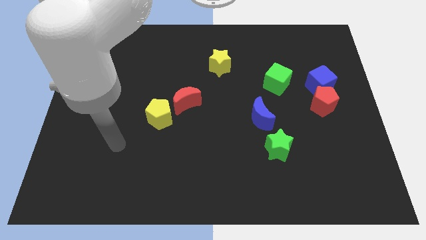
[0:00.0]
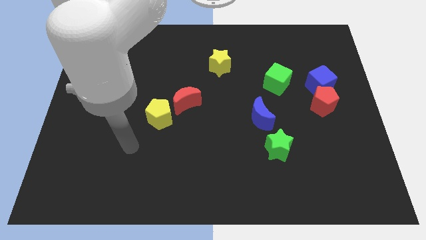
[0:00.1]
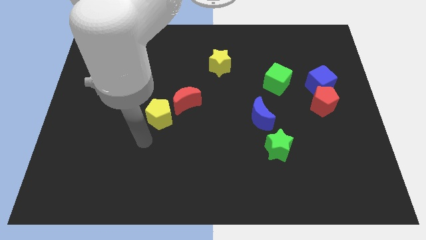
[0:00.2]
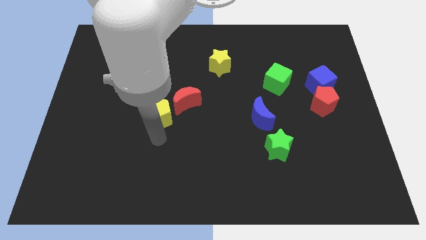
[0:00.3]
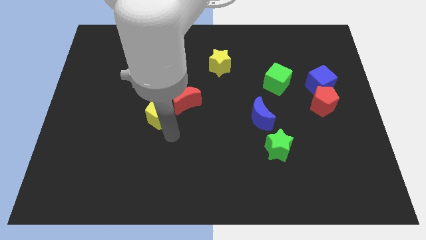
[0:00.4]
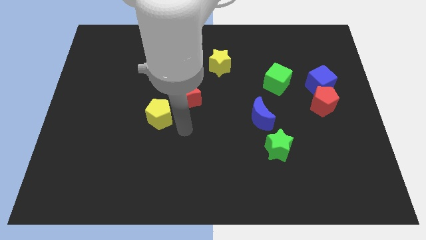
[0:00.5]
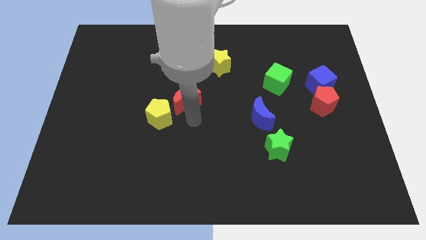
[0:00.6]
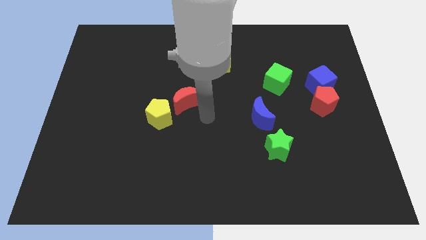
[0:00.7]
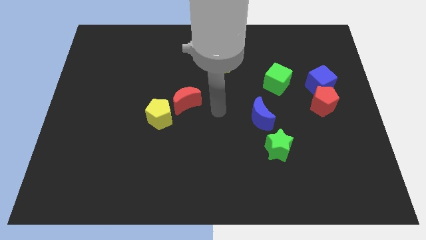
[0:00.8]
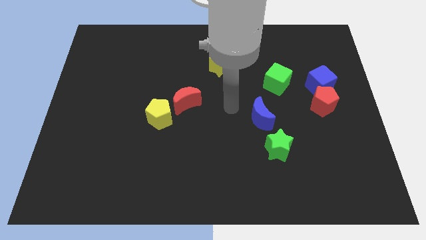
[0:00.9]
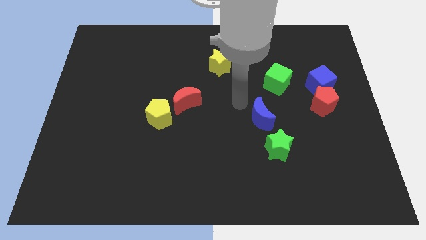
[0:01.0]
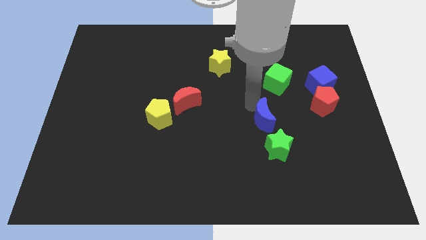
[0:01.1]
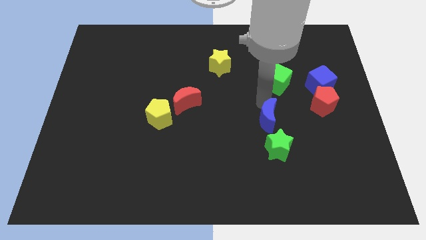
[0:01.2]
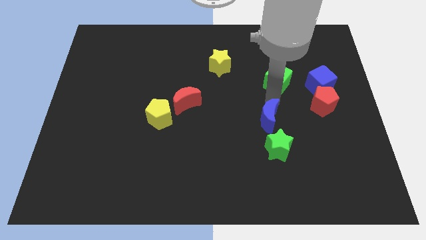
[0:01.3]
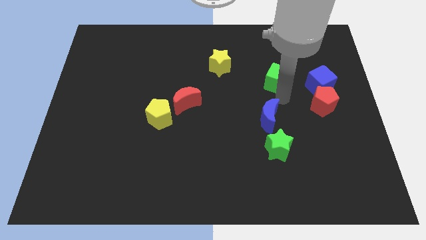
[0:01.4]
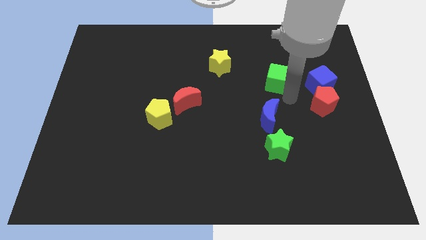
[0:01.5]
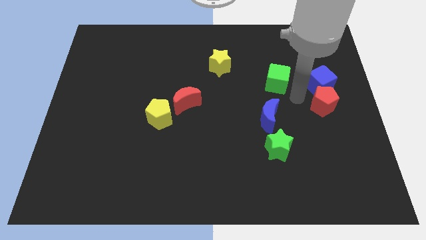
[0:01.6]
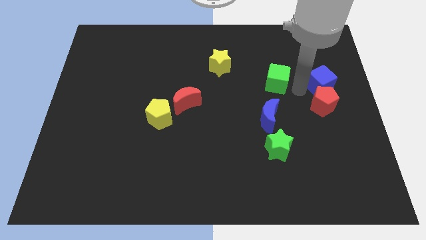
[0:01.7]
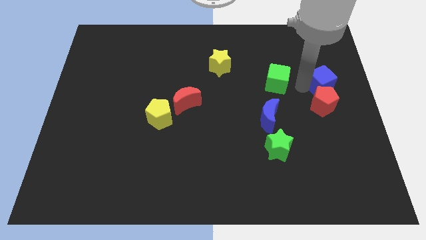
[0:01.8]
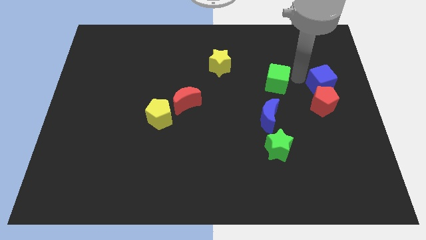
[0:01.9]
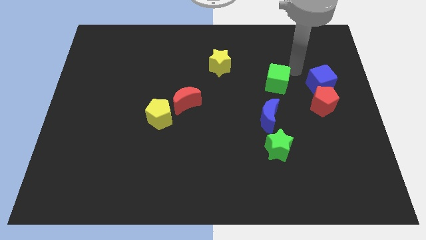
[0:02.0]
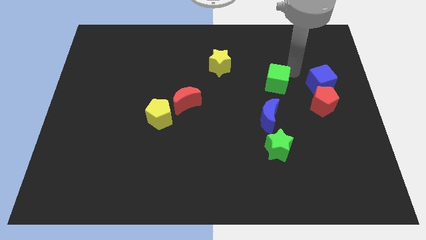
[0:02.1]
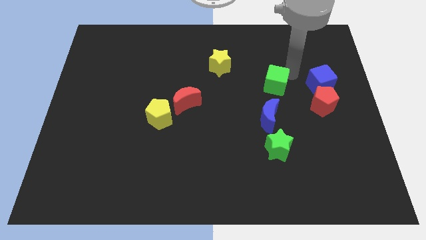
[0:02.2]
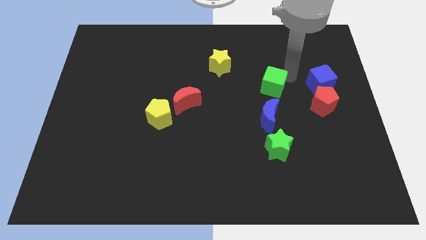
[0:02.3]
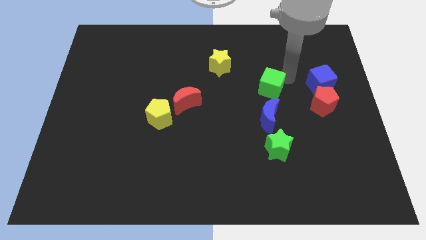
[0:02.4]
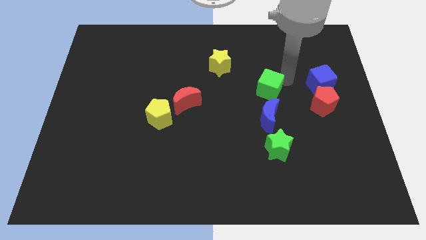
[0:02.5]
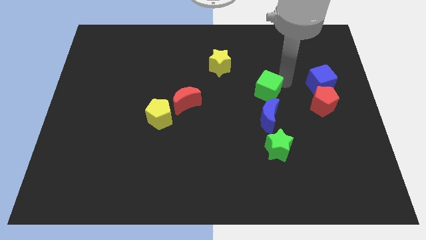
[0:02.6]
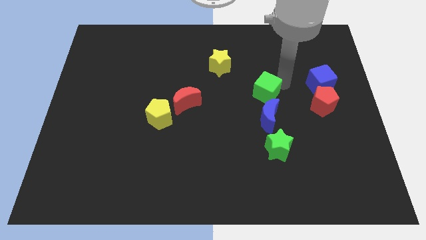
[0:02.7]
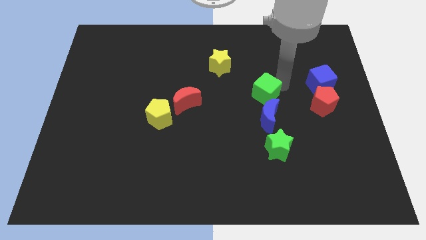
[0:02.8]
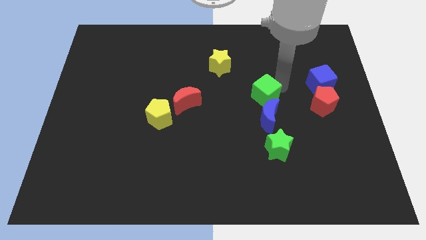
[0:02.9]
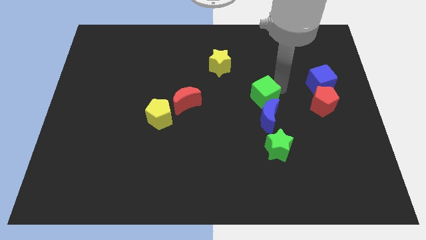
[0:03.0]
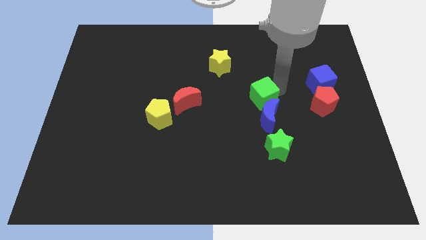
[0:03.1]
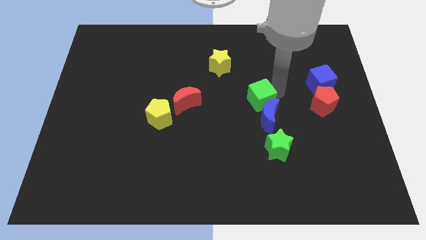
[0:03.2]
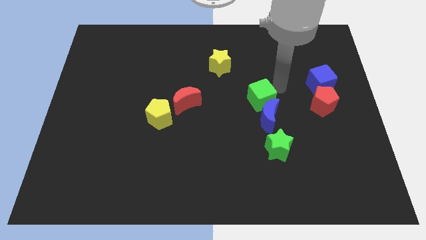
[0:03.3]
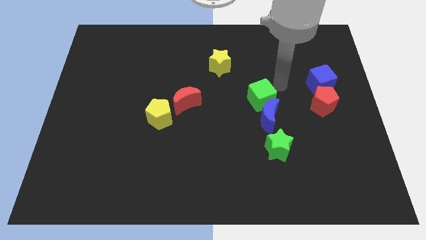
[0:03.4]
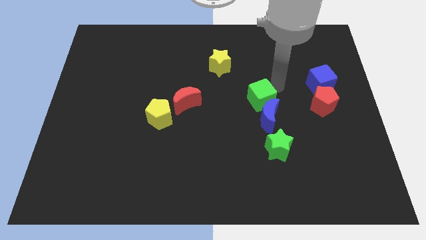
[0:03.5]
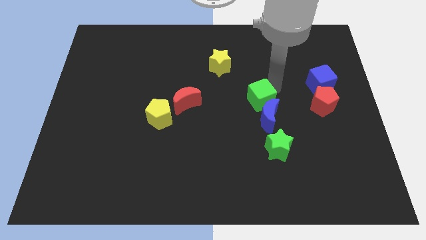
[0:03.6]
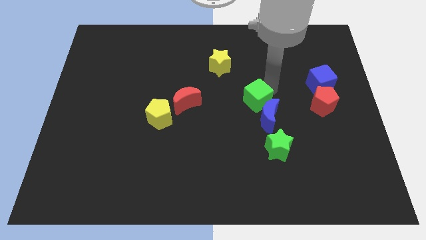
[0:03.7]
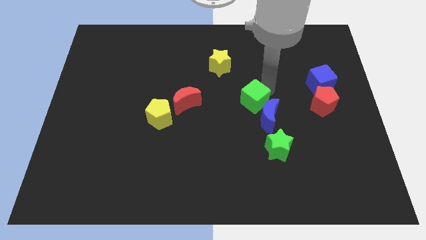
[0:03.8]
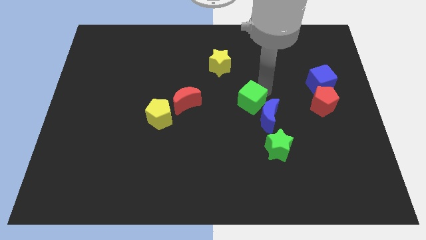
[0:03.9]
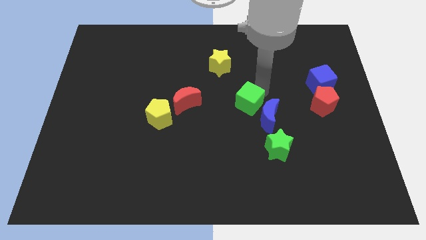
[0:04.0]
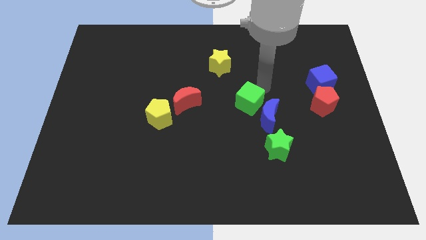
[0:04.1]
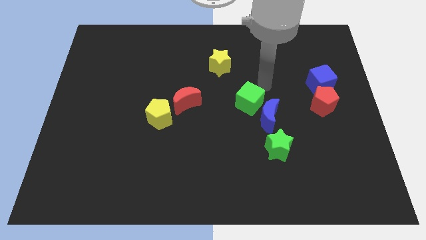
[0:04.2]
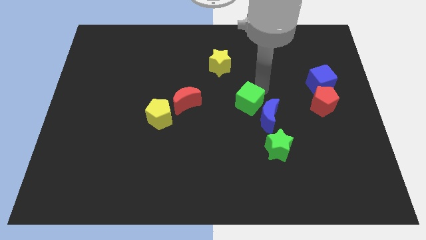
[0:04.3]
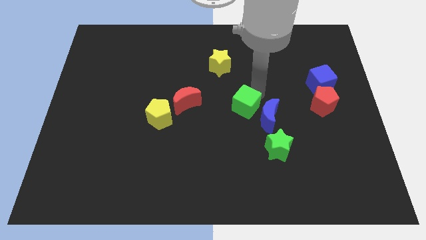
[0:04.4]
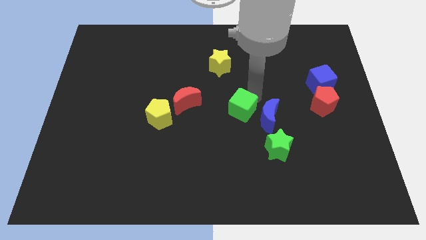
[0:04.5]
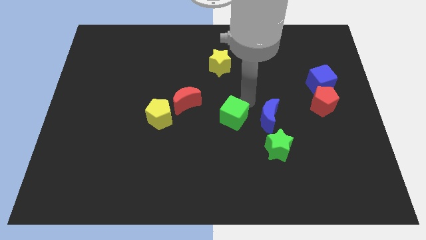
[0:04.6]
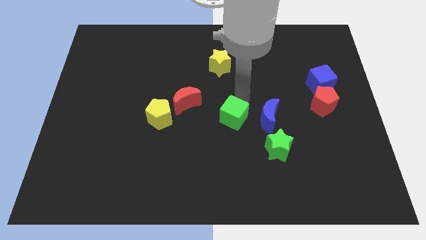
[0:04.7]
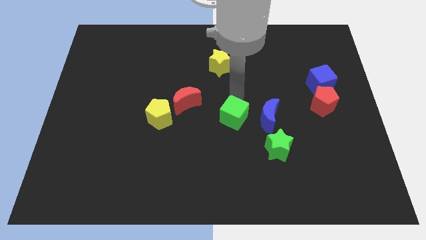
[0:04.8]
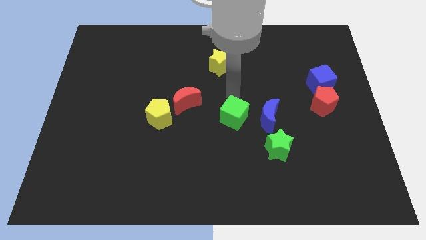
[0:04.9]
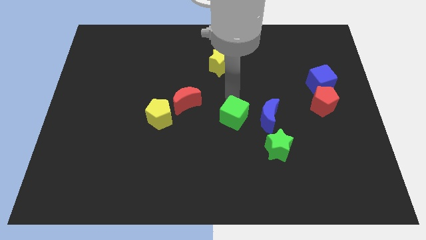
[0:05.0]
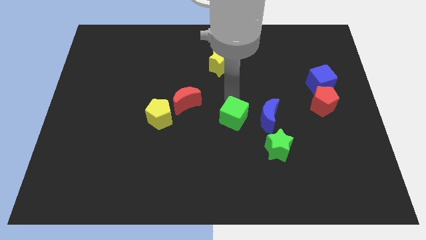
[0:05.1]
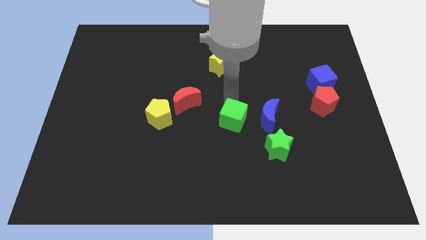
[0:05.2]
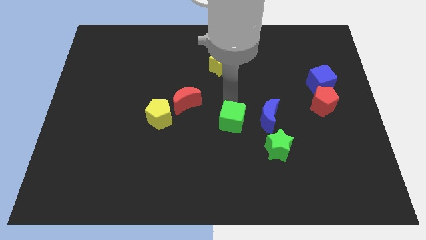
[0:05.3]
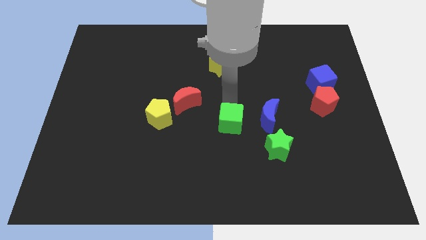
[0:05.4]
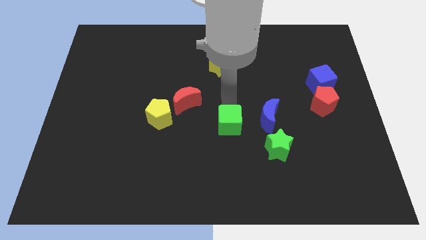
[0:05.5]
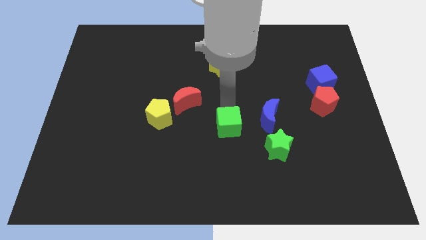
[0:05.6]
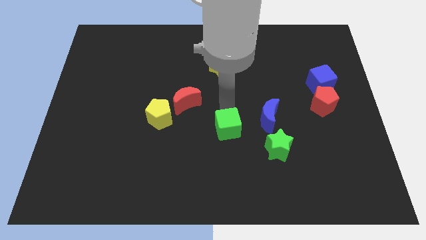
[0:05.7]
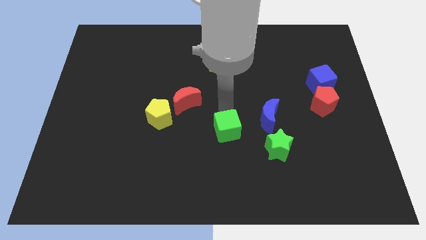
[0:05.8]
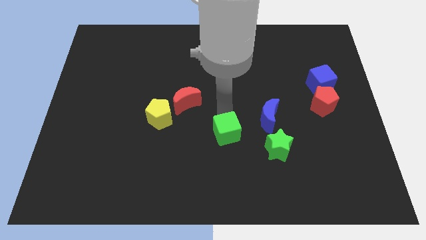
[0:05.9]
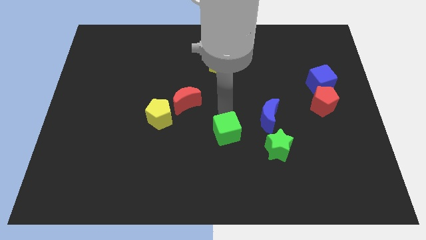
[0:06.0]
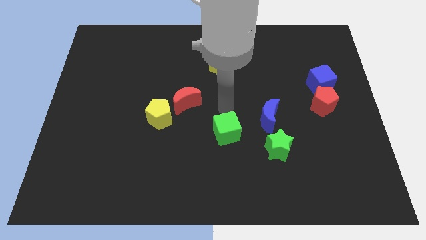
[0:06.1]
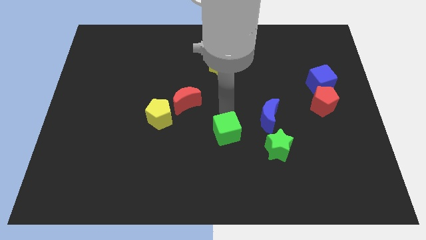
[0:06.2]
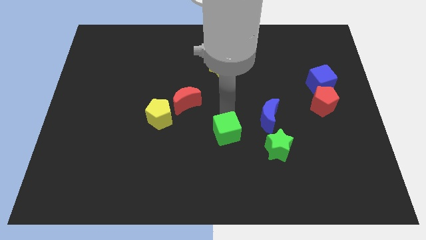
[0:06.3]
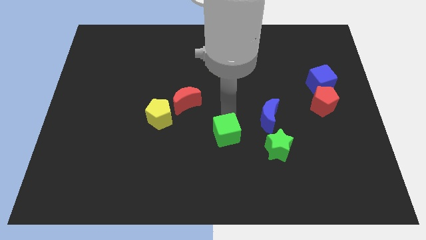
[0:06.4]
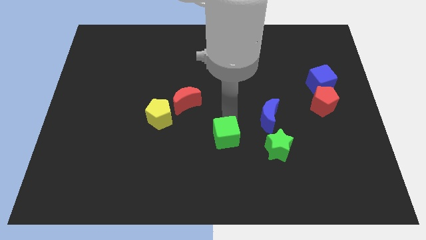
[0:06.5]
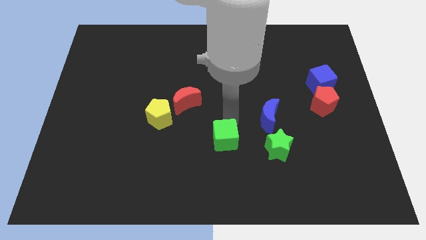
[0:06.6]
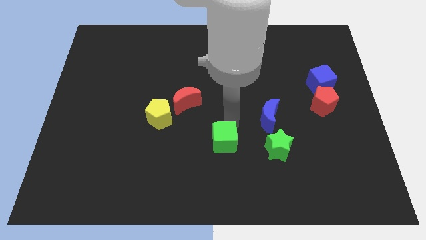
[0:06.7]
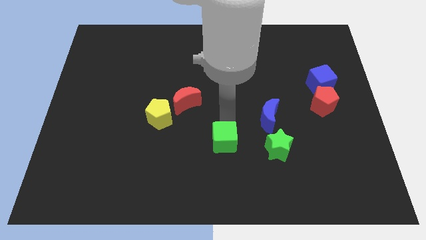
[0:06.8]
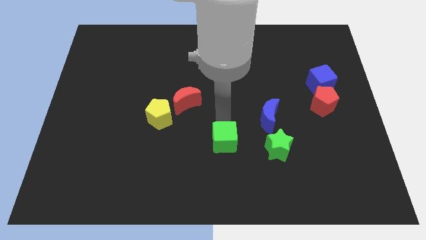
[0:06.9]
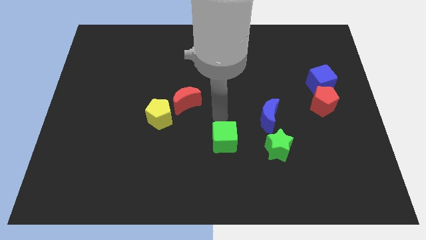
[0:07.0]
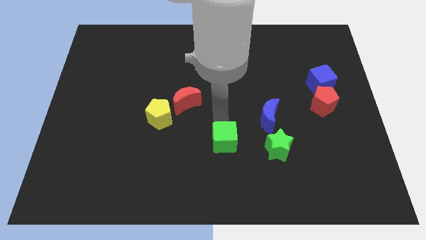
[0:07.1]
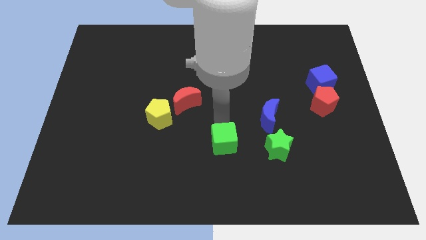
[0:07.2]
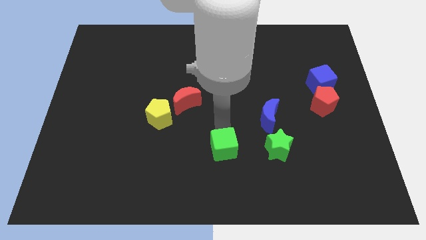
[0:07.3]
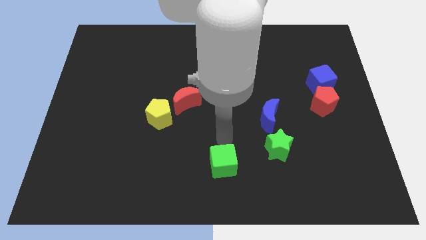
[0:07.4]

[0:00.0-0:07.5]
put the green cube to the bottom side

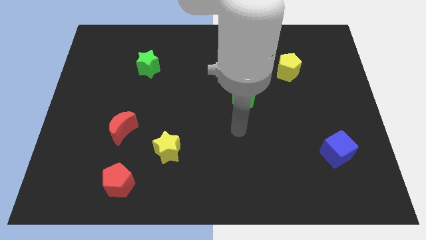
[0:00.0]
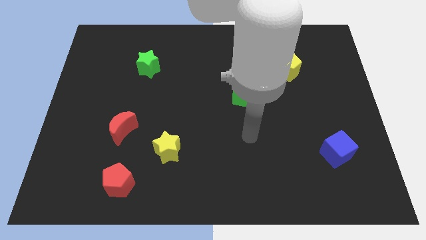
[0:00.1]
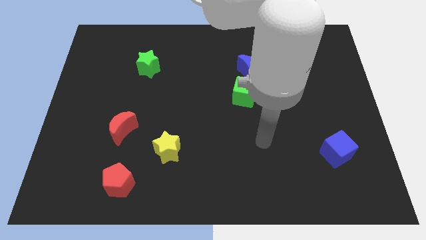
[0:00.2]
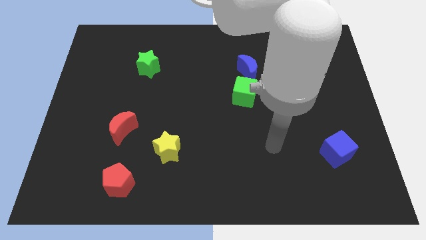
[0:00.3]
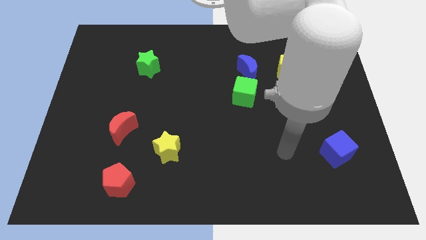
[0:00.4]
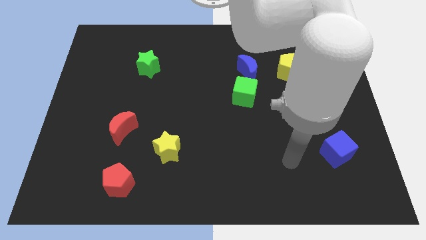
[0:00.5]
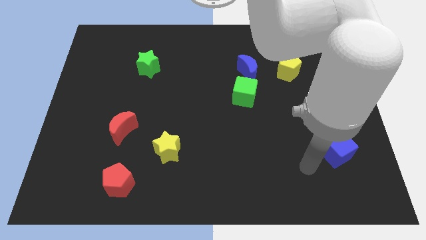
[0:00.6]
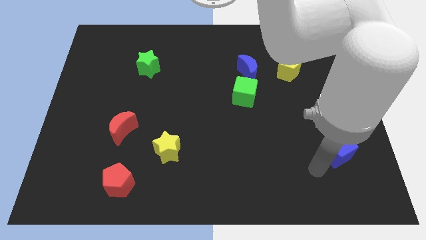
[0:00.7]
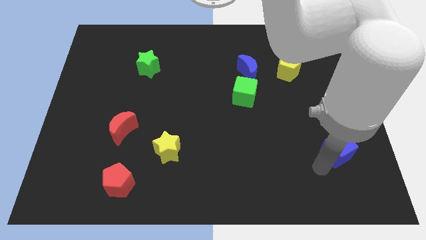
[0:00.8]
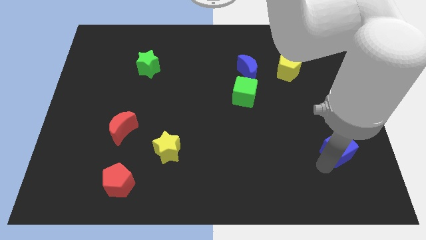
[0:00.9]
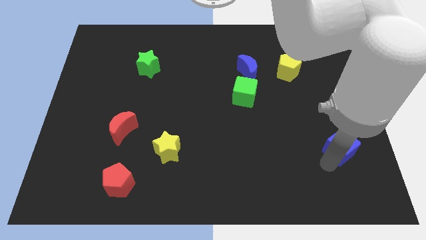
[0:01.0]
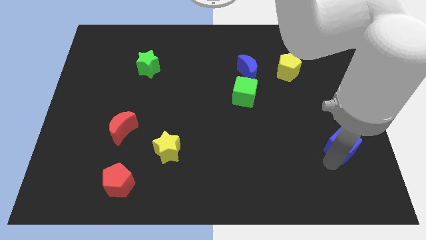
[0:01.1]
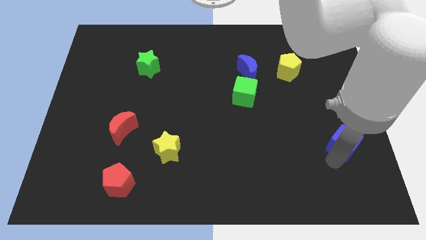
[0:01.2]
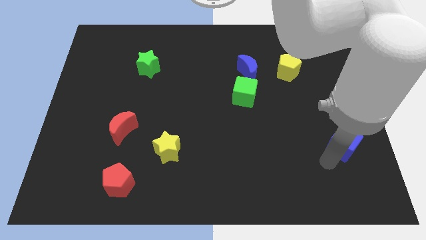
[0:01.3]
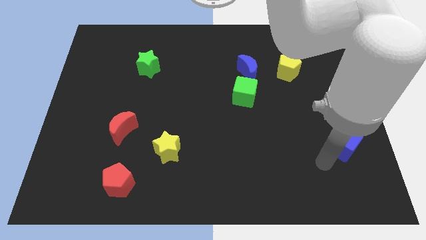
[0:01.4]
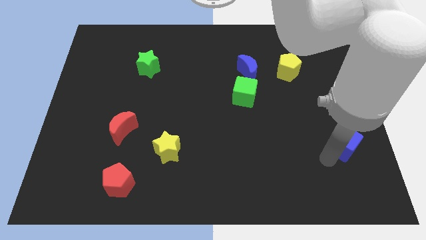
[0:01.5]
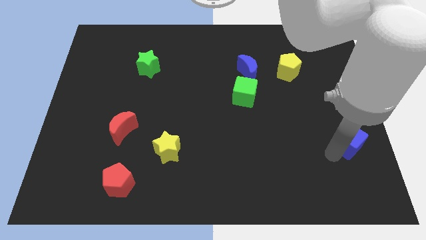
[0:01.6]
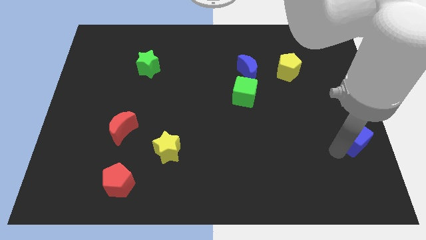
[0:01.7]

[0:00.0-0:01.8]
put the blue cube to the right side of the board
